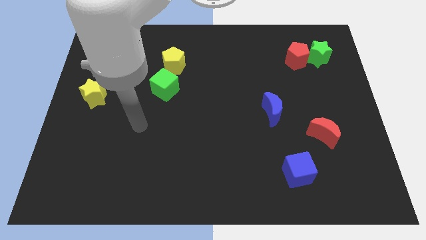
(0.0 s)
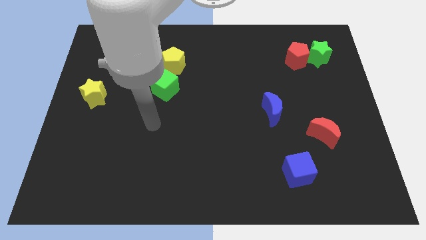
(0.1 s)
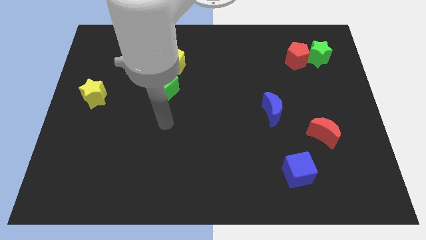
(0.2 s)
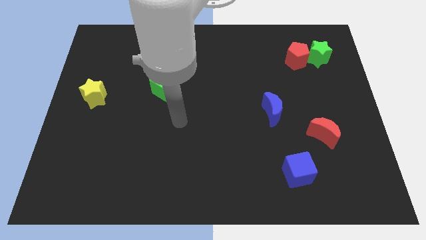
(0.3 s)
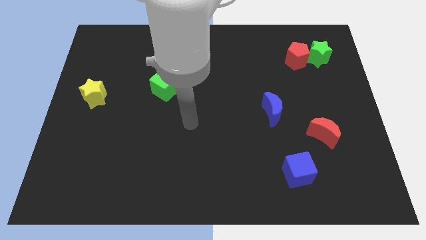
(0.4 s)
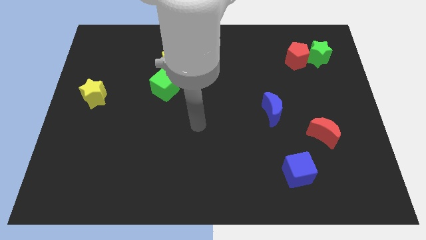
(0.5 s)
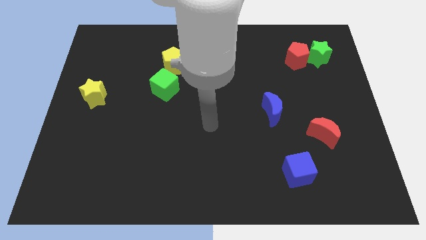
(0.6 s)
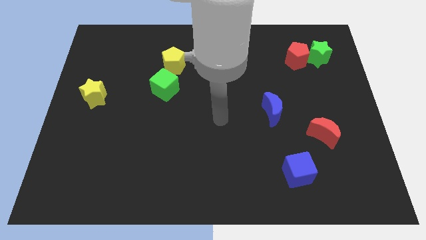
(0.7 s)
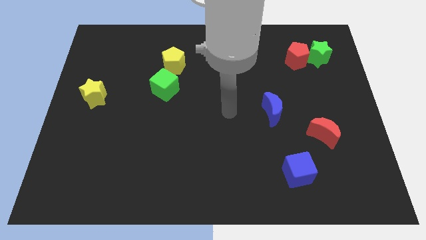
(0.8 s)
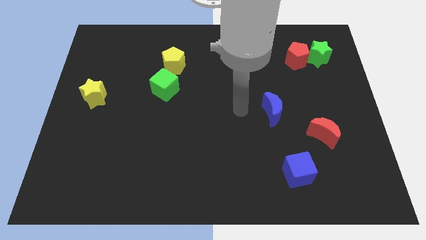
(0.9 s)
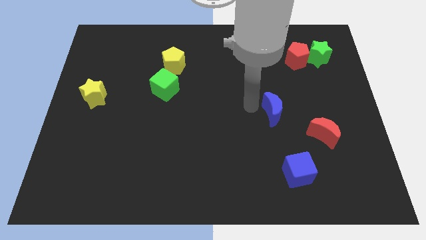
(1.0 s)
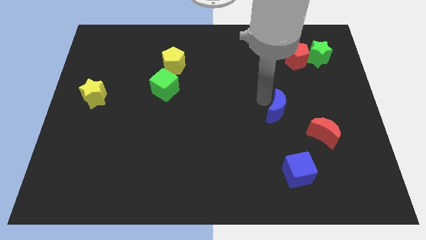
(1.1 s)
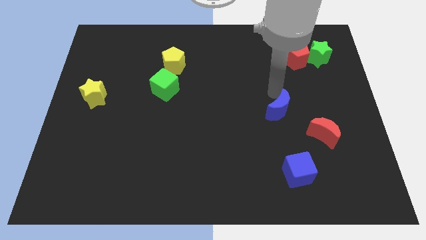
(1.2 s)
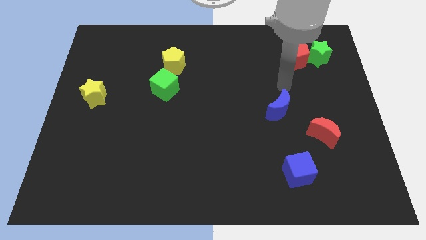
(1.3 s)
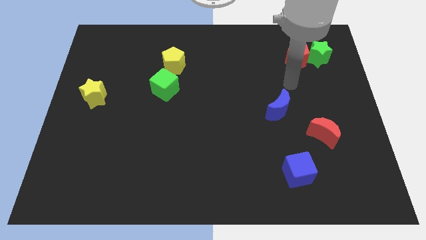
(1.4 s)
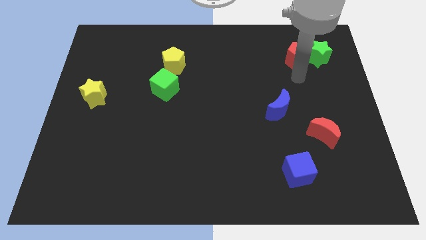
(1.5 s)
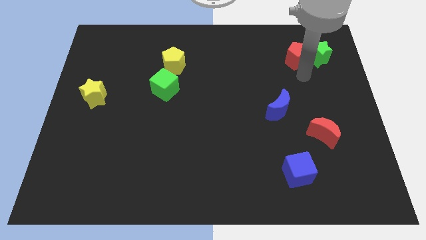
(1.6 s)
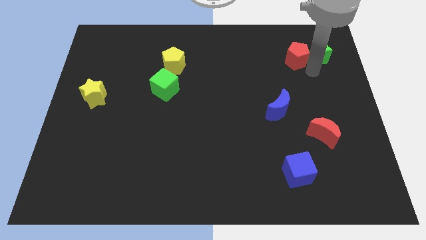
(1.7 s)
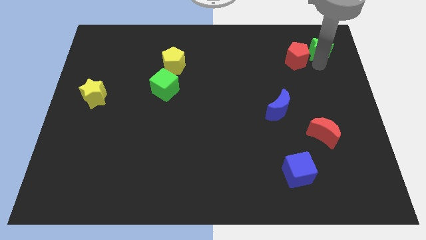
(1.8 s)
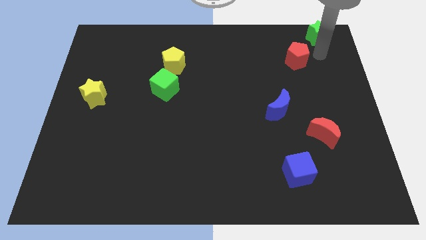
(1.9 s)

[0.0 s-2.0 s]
separate the red pentagon from the green star

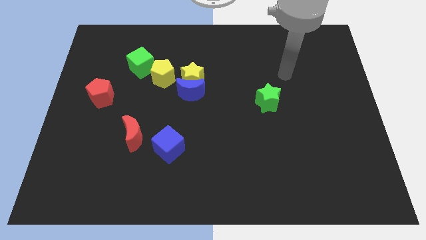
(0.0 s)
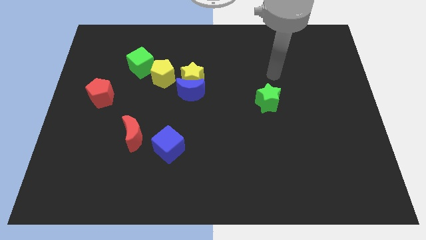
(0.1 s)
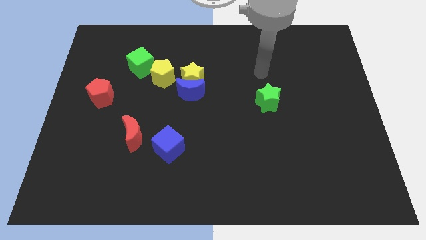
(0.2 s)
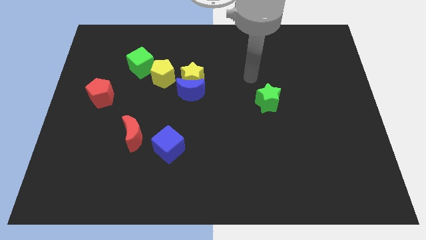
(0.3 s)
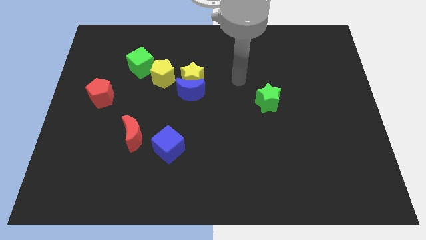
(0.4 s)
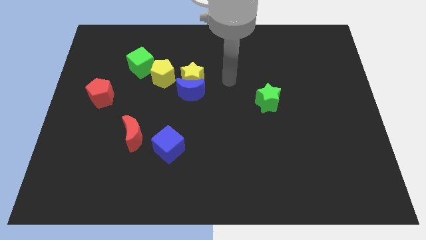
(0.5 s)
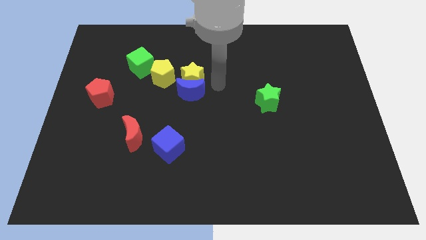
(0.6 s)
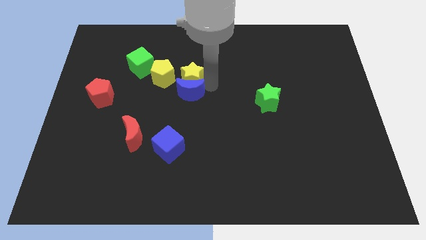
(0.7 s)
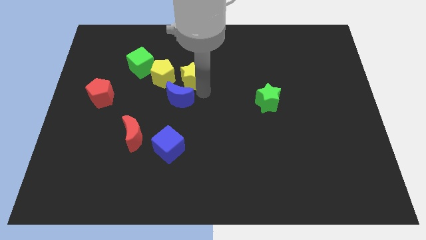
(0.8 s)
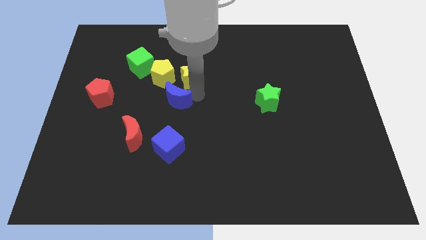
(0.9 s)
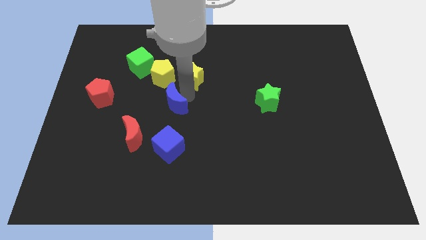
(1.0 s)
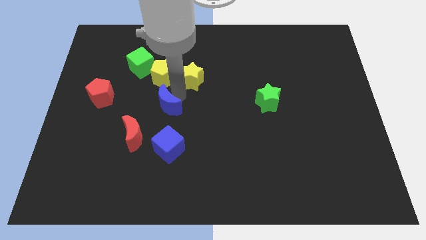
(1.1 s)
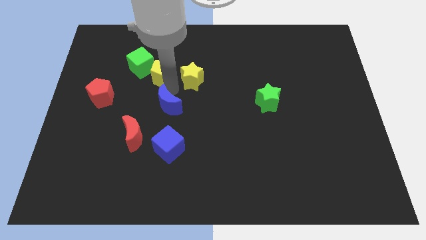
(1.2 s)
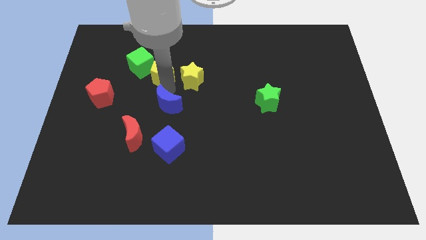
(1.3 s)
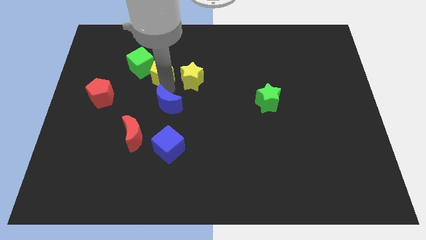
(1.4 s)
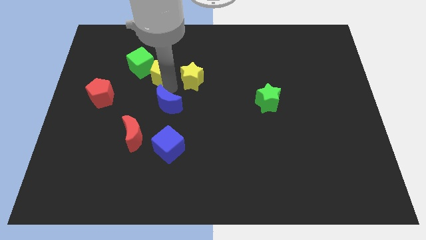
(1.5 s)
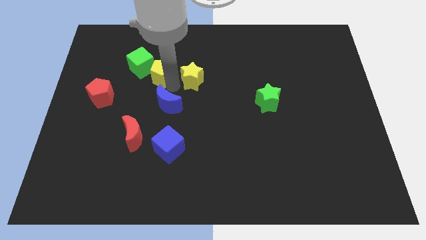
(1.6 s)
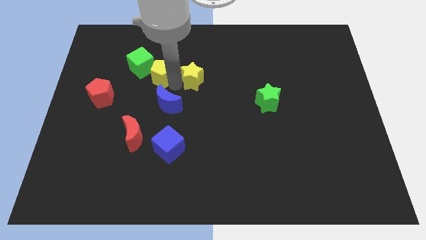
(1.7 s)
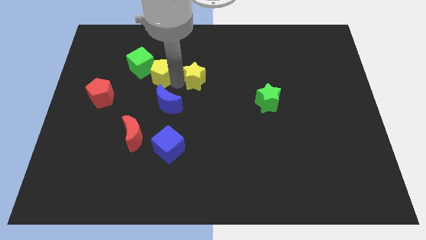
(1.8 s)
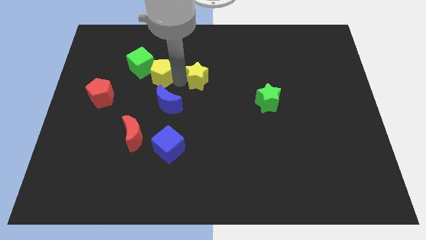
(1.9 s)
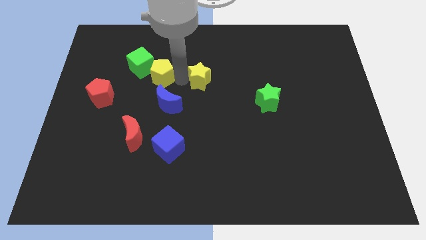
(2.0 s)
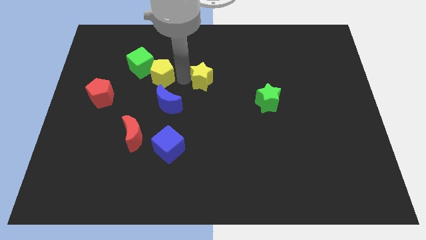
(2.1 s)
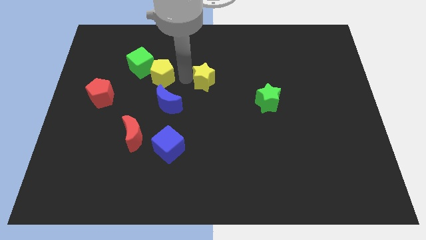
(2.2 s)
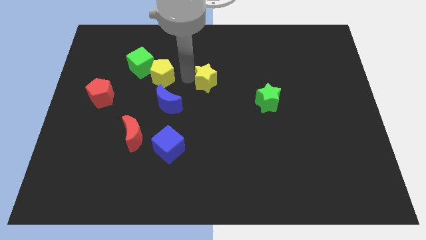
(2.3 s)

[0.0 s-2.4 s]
separate the yellow star from the blue moon and yellow pentagon

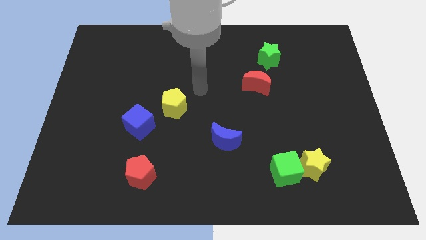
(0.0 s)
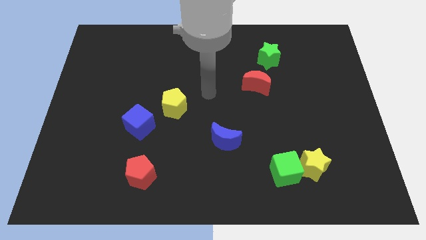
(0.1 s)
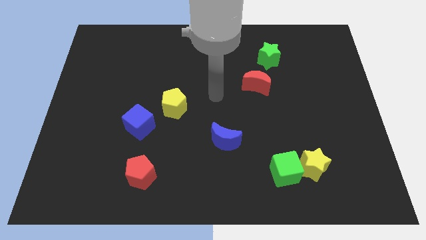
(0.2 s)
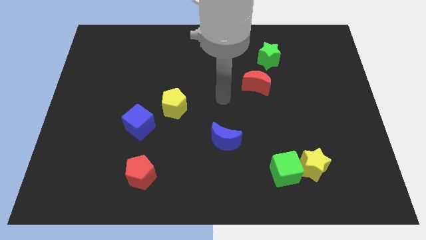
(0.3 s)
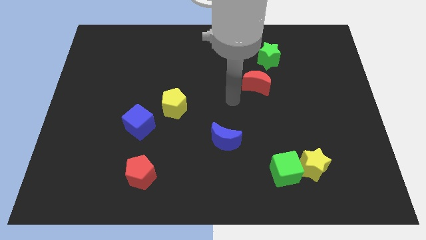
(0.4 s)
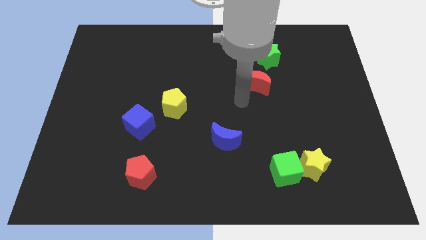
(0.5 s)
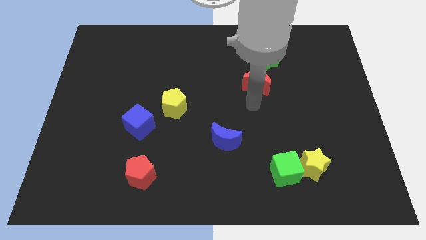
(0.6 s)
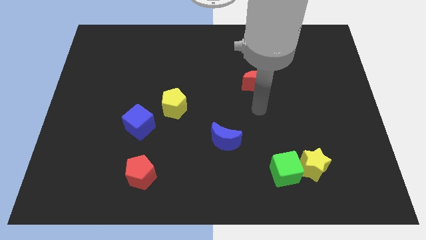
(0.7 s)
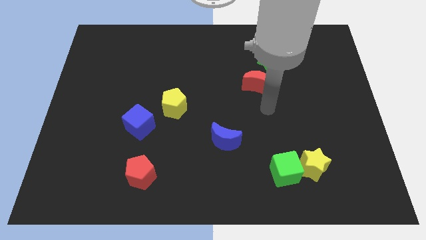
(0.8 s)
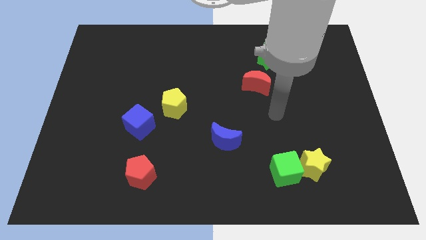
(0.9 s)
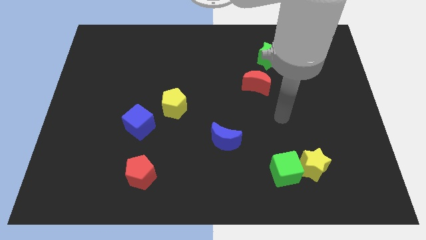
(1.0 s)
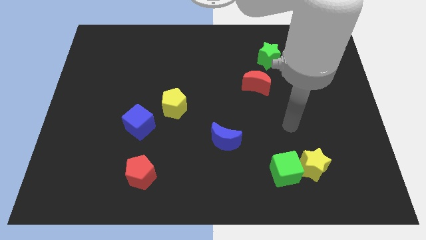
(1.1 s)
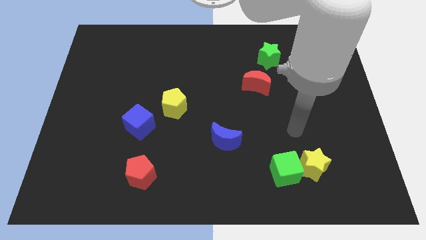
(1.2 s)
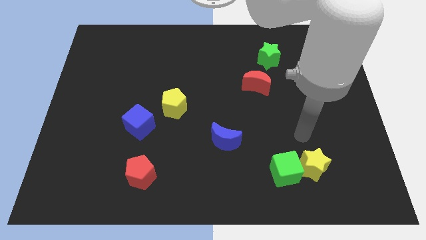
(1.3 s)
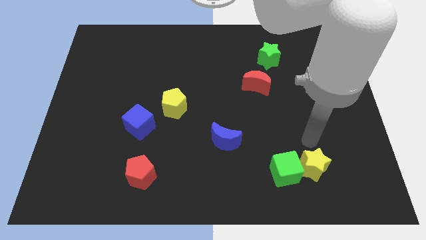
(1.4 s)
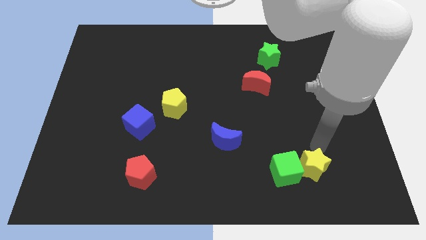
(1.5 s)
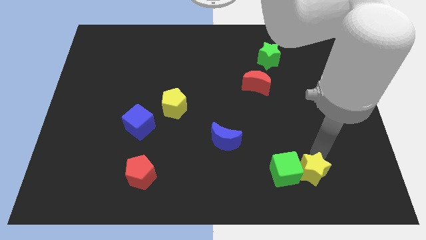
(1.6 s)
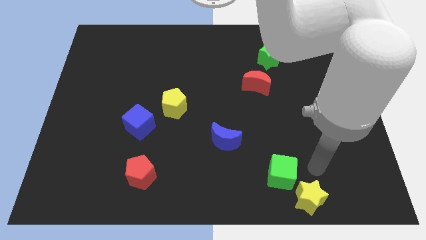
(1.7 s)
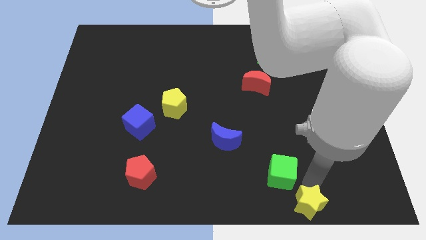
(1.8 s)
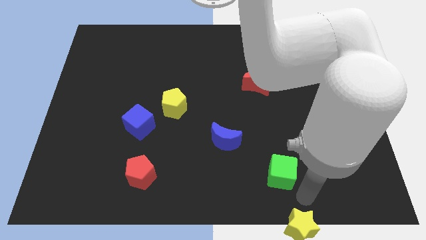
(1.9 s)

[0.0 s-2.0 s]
separate the green cube from the yellow star

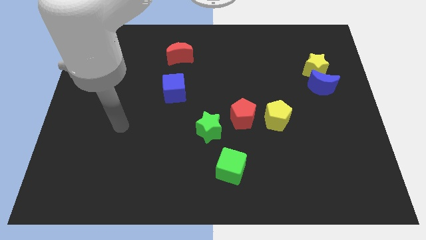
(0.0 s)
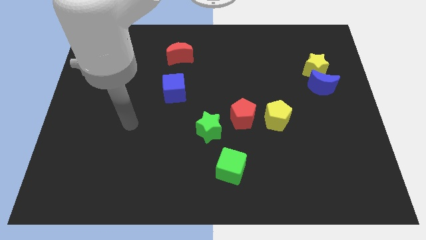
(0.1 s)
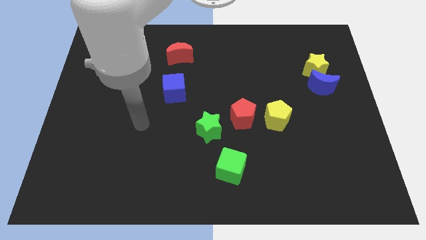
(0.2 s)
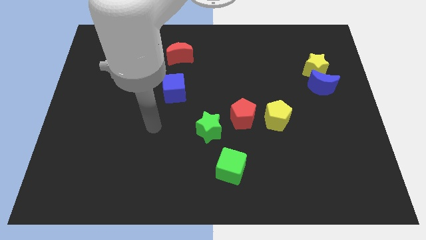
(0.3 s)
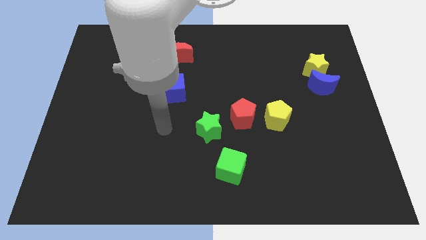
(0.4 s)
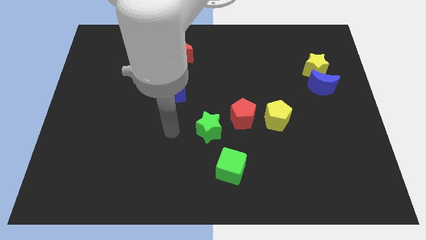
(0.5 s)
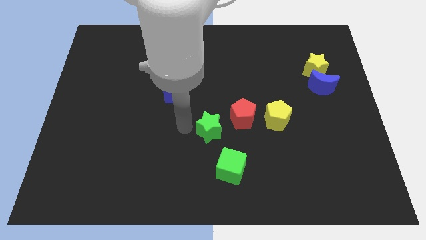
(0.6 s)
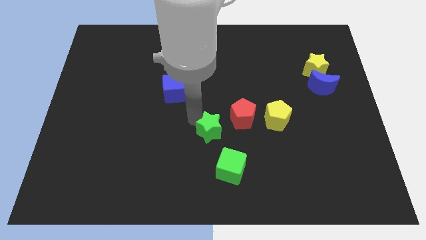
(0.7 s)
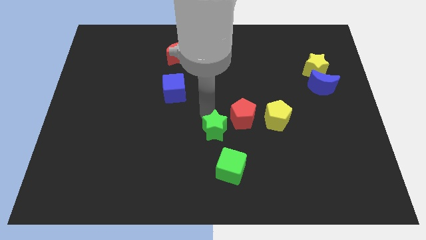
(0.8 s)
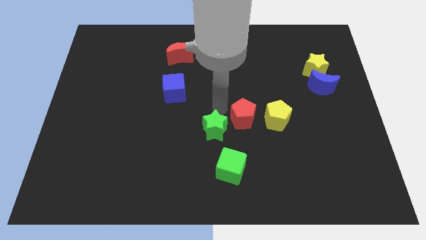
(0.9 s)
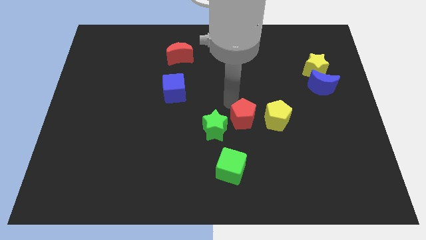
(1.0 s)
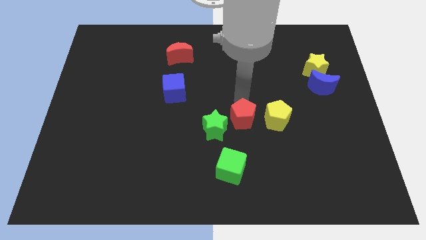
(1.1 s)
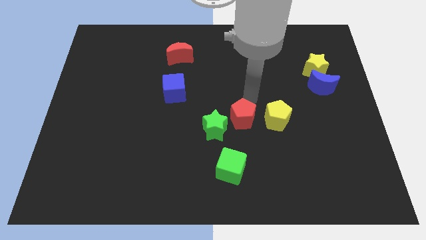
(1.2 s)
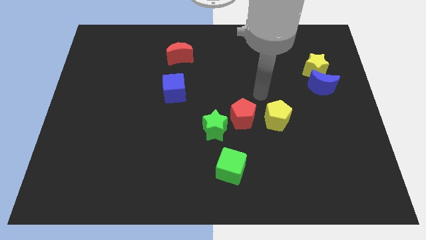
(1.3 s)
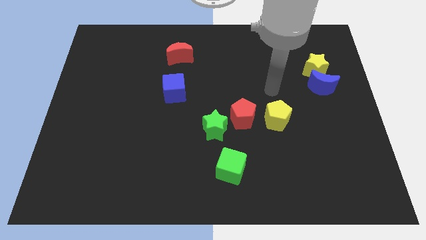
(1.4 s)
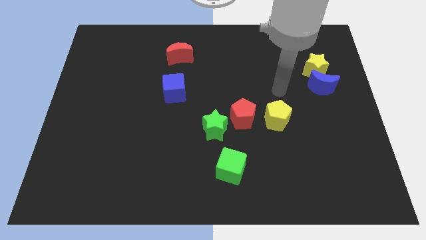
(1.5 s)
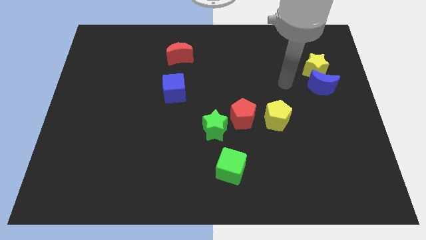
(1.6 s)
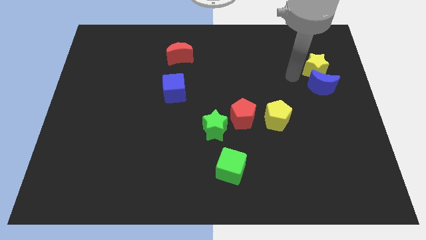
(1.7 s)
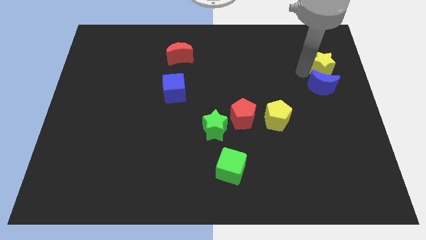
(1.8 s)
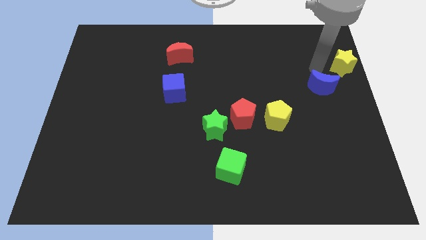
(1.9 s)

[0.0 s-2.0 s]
separate the blue moon from the yellow star

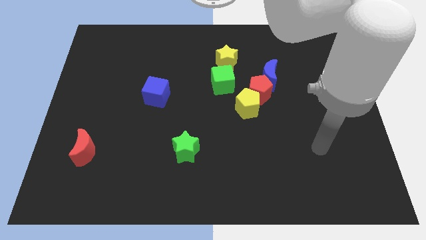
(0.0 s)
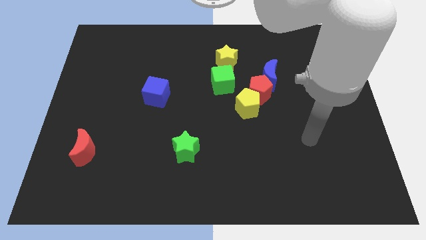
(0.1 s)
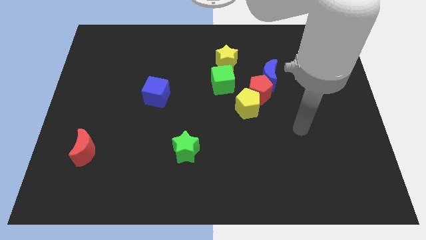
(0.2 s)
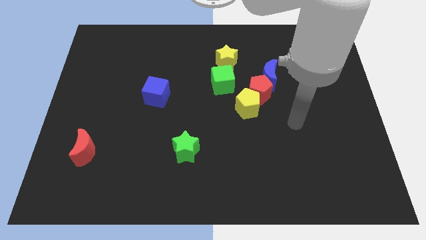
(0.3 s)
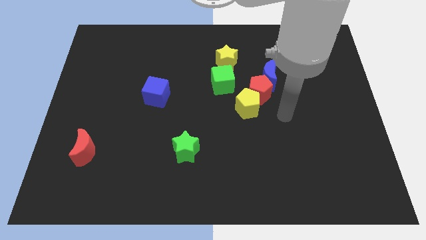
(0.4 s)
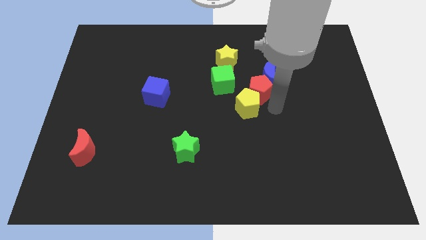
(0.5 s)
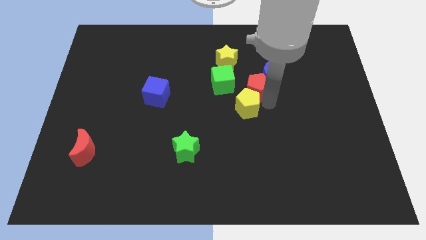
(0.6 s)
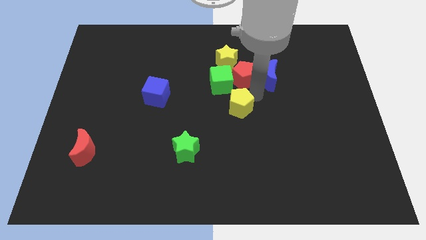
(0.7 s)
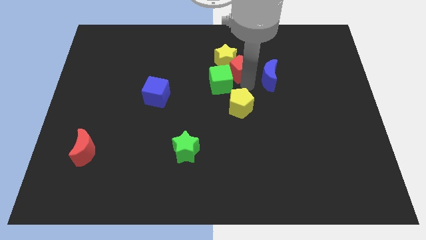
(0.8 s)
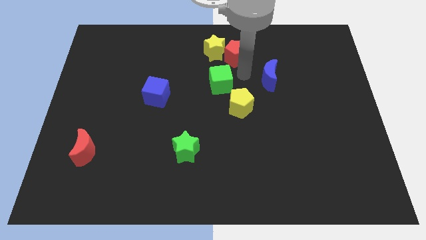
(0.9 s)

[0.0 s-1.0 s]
move the blue moon away from the red pentagon
